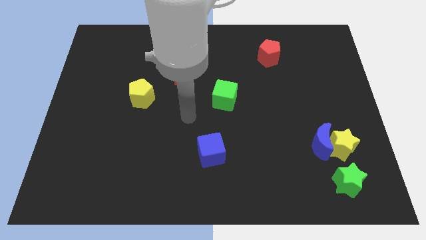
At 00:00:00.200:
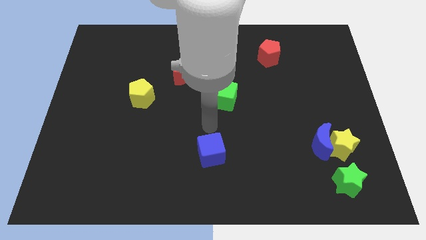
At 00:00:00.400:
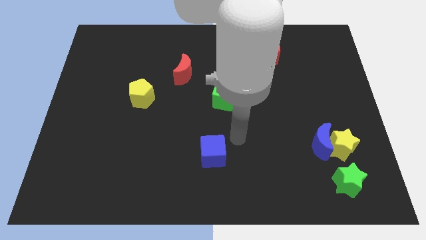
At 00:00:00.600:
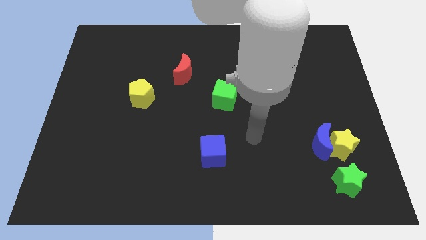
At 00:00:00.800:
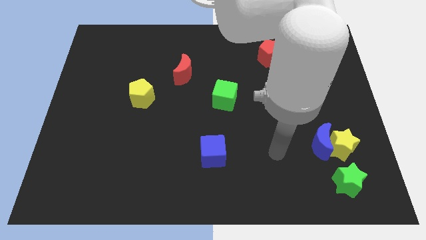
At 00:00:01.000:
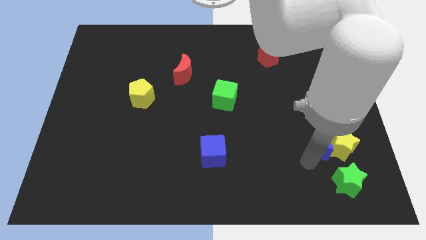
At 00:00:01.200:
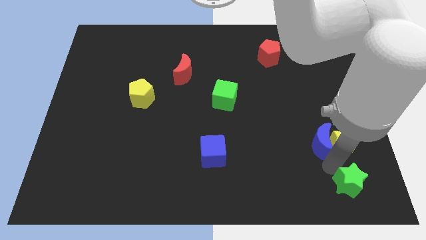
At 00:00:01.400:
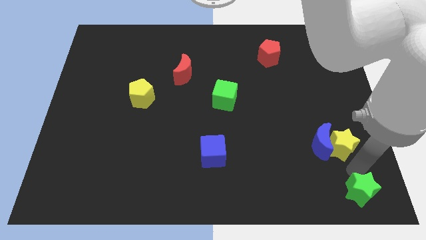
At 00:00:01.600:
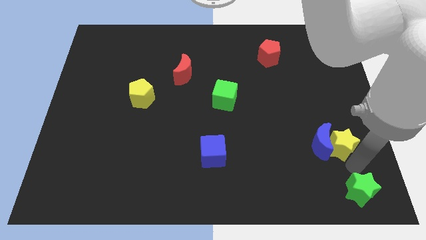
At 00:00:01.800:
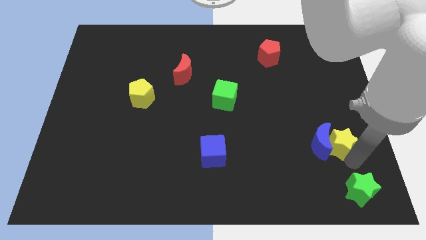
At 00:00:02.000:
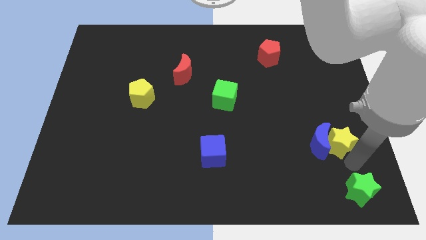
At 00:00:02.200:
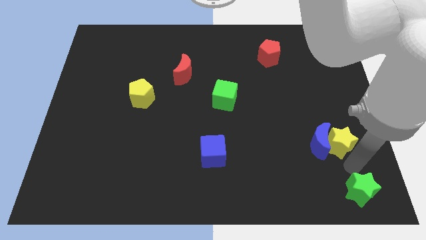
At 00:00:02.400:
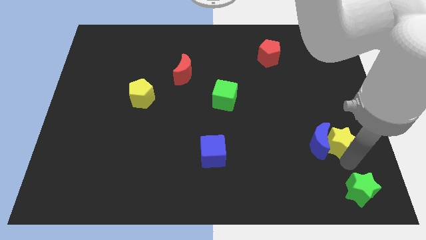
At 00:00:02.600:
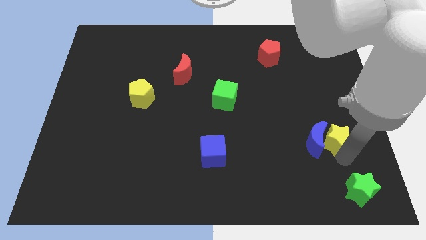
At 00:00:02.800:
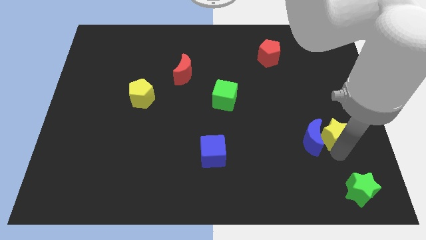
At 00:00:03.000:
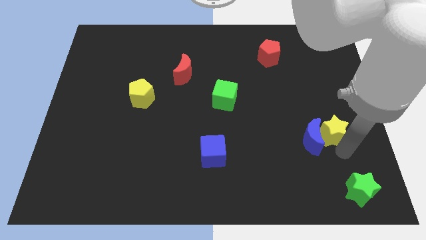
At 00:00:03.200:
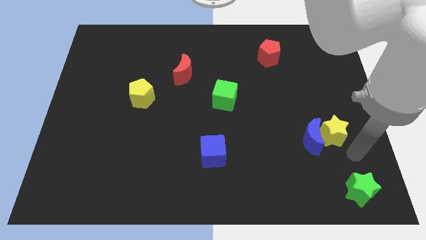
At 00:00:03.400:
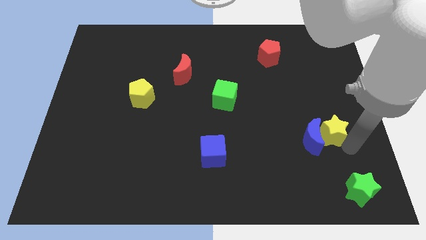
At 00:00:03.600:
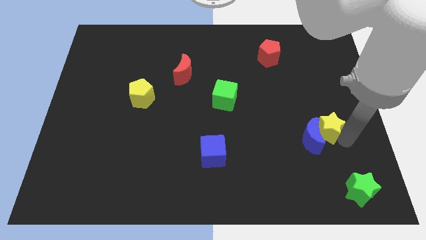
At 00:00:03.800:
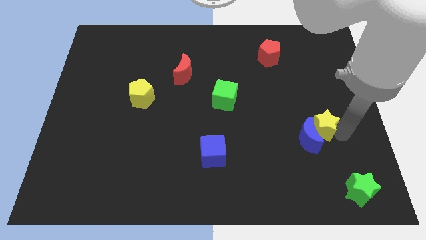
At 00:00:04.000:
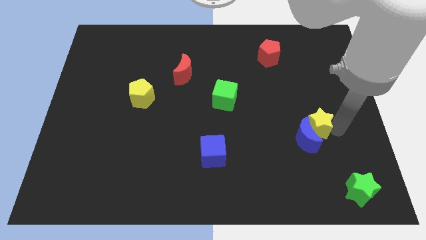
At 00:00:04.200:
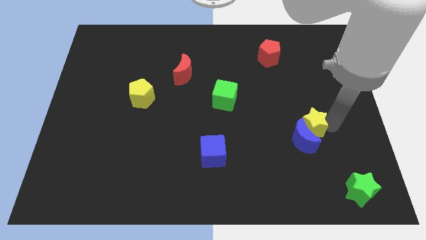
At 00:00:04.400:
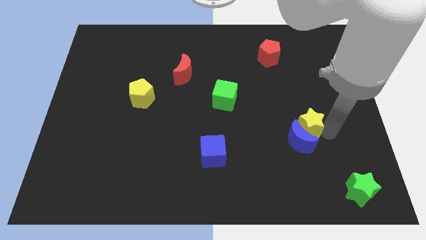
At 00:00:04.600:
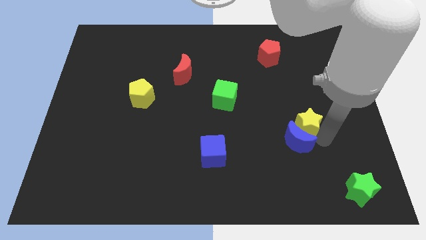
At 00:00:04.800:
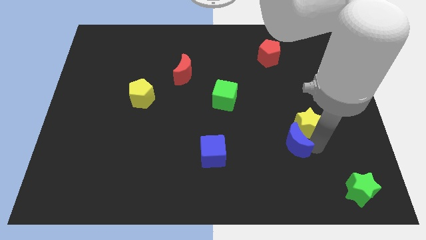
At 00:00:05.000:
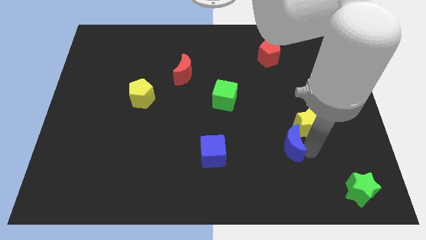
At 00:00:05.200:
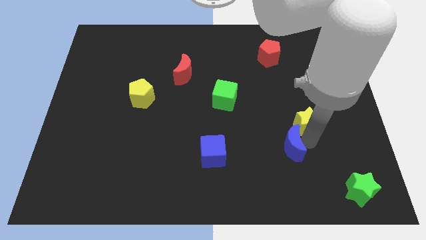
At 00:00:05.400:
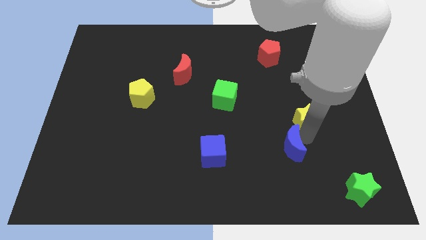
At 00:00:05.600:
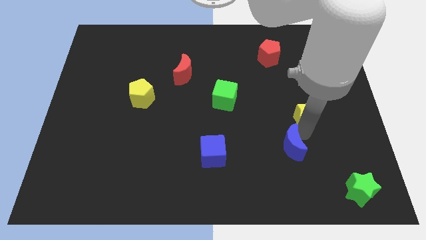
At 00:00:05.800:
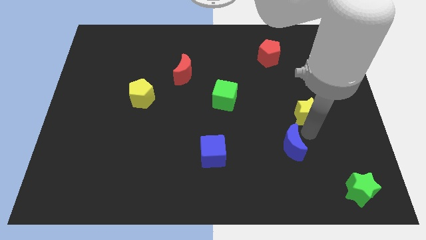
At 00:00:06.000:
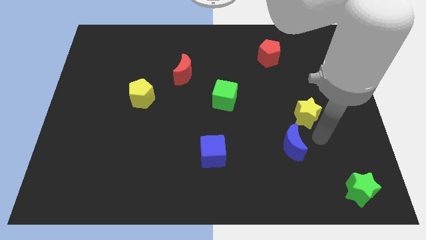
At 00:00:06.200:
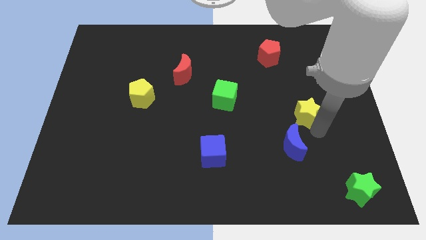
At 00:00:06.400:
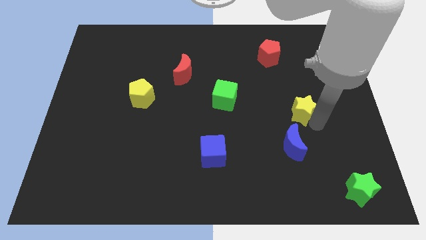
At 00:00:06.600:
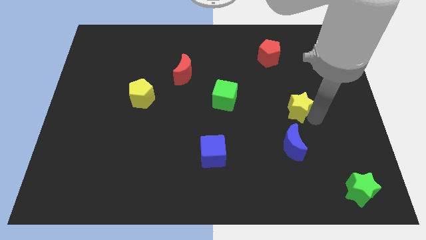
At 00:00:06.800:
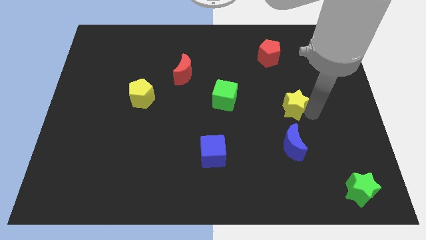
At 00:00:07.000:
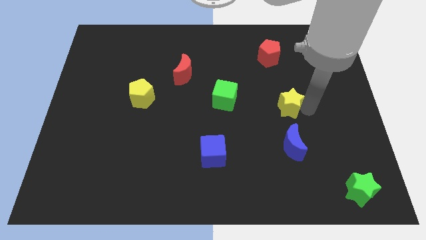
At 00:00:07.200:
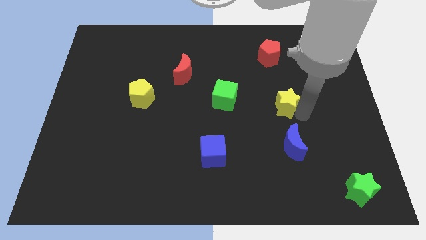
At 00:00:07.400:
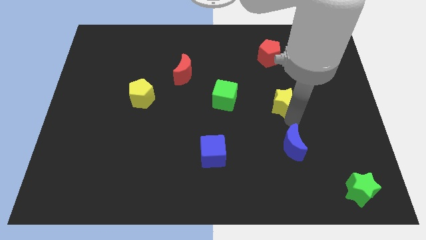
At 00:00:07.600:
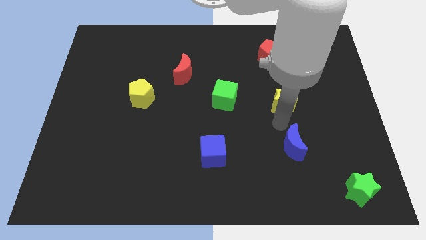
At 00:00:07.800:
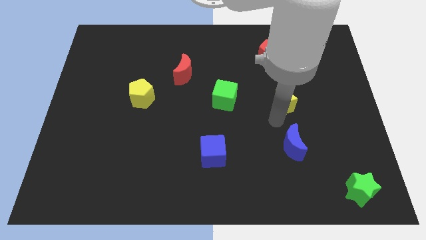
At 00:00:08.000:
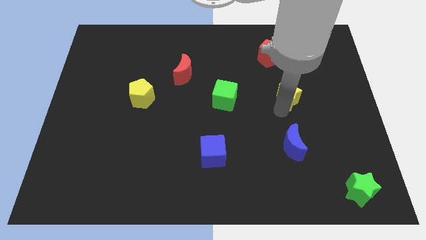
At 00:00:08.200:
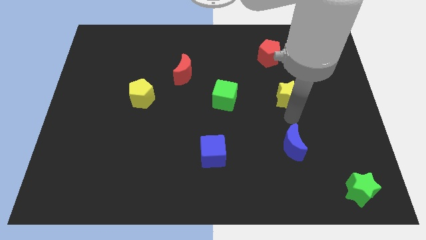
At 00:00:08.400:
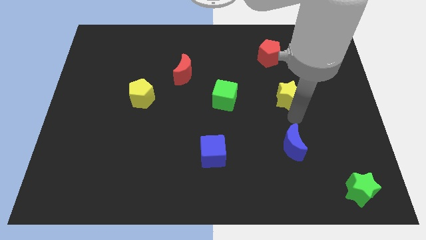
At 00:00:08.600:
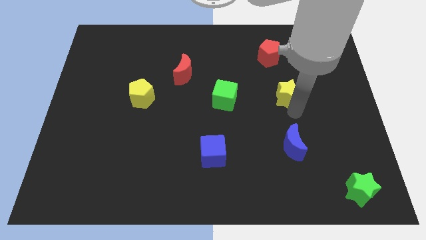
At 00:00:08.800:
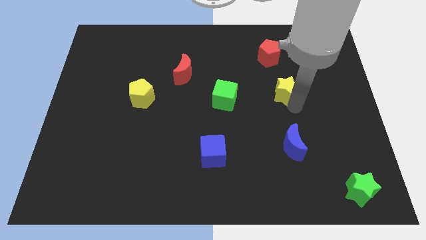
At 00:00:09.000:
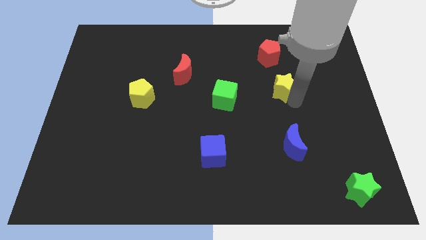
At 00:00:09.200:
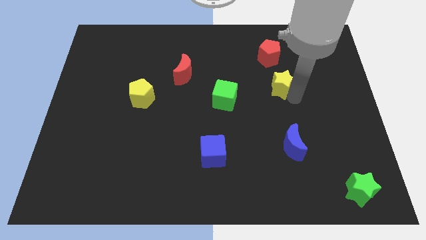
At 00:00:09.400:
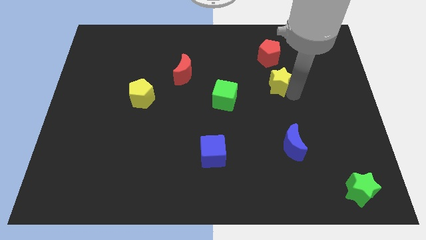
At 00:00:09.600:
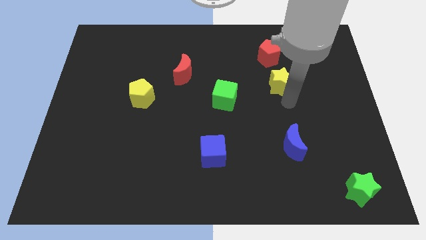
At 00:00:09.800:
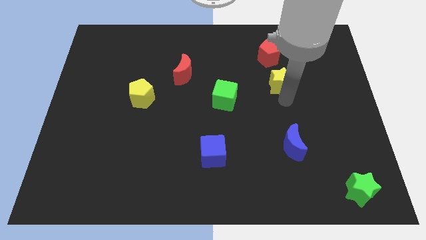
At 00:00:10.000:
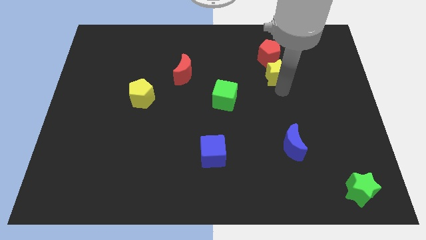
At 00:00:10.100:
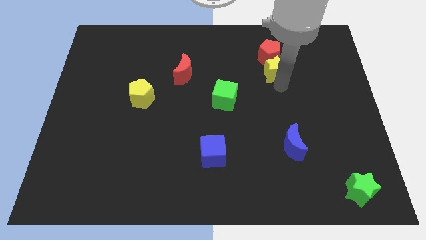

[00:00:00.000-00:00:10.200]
slide the yellow star to the red pentagon

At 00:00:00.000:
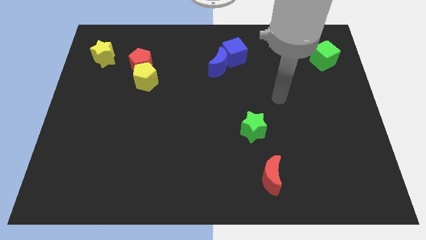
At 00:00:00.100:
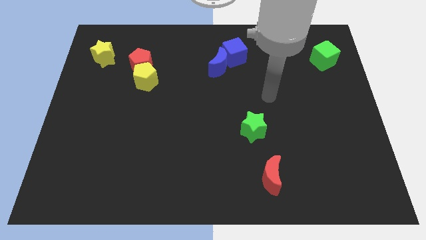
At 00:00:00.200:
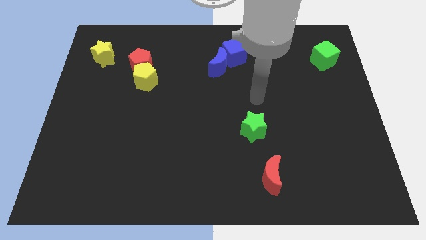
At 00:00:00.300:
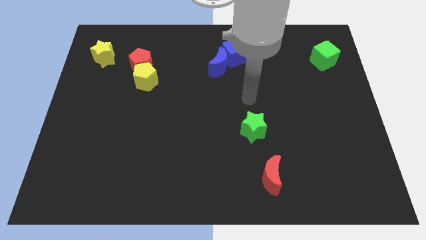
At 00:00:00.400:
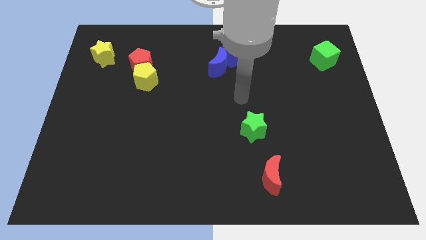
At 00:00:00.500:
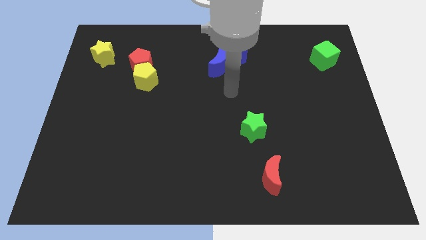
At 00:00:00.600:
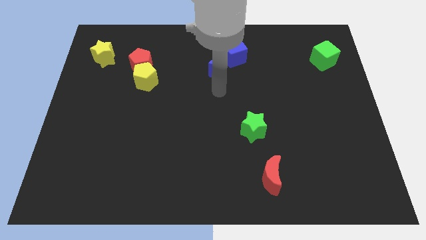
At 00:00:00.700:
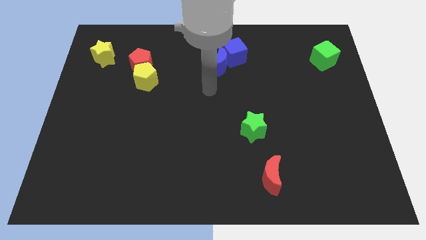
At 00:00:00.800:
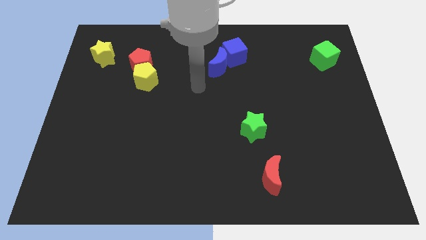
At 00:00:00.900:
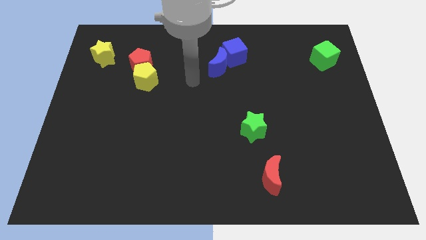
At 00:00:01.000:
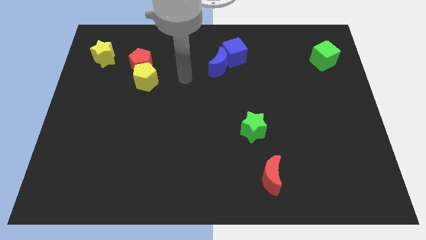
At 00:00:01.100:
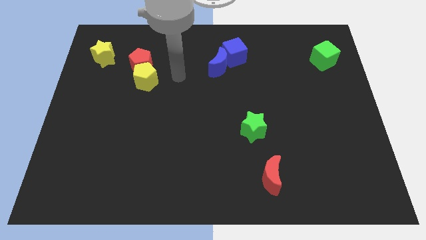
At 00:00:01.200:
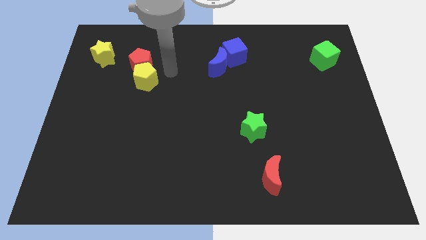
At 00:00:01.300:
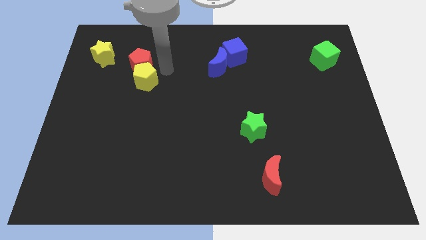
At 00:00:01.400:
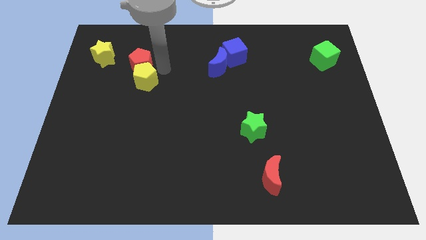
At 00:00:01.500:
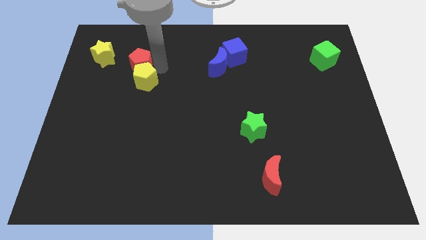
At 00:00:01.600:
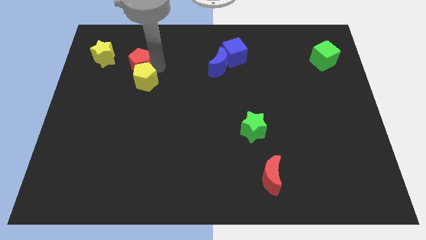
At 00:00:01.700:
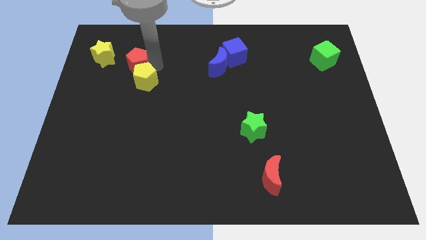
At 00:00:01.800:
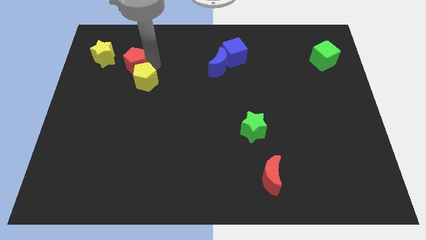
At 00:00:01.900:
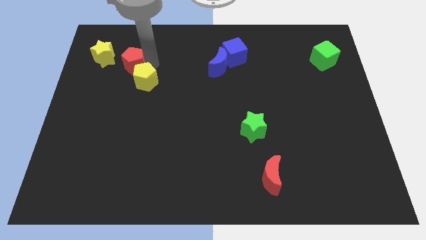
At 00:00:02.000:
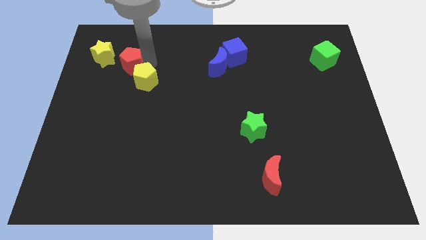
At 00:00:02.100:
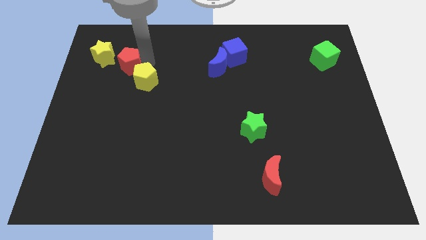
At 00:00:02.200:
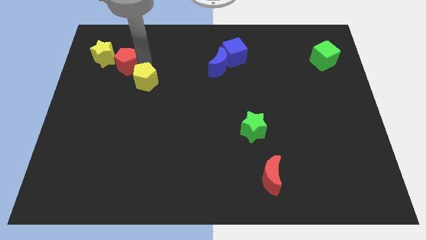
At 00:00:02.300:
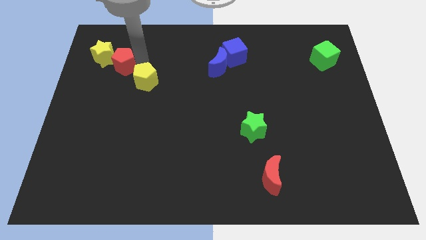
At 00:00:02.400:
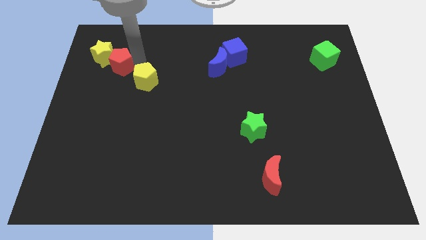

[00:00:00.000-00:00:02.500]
push the red pentagon towards the yellow star

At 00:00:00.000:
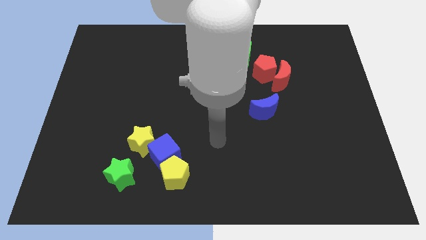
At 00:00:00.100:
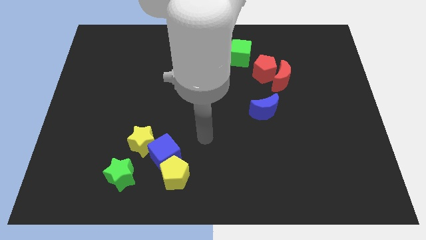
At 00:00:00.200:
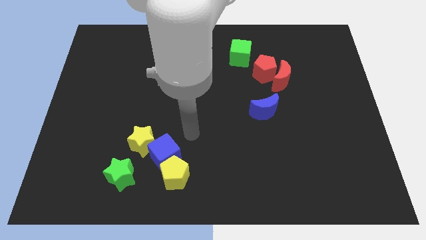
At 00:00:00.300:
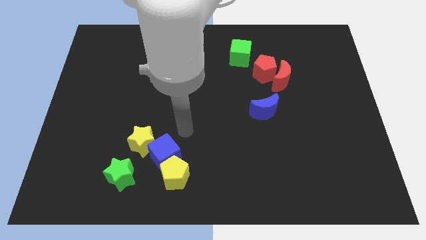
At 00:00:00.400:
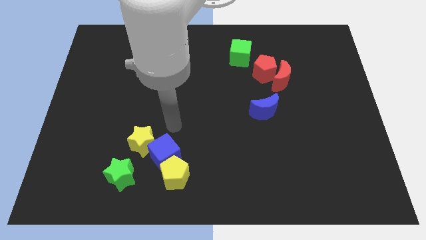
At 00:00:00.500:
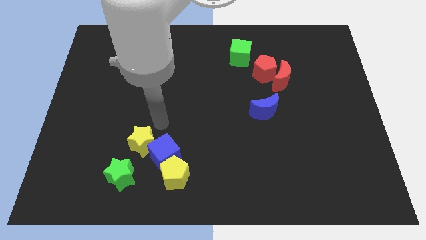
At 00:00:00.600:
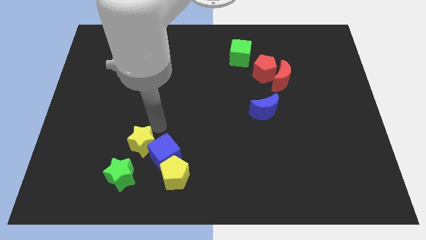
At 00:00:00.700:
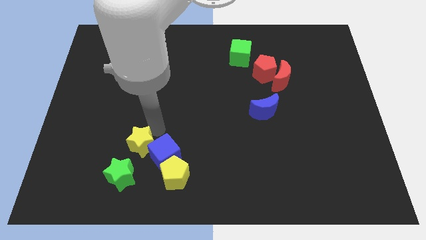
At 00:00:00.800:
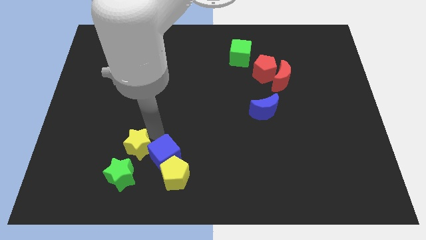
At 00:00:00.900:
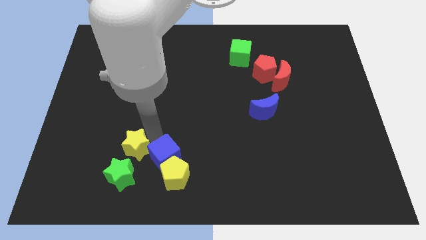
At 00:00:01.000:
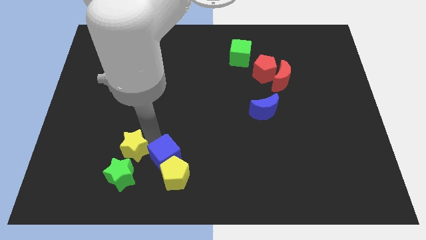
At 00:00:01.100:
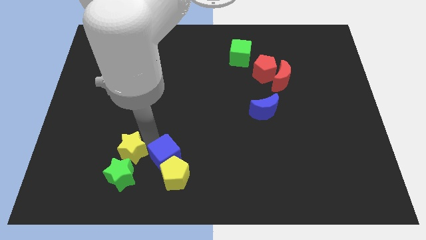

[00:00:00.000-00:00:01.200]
move the yellow star towards the green star
